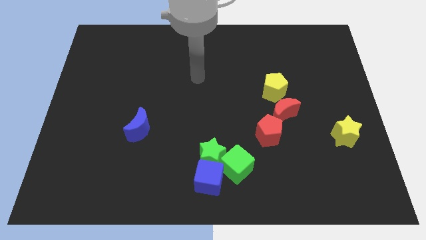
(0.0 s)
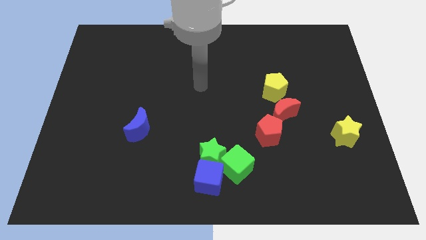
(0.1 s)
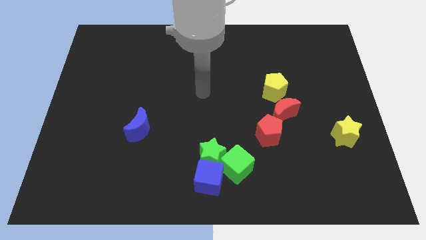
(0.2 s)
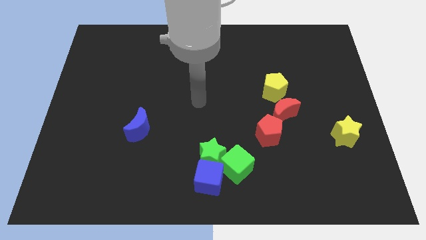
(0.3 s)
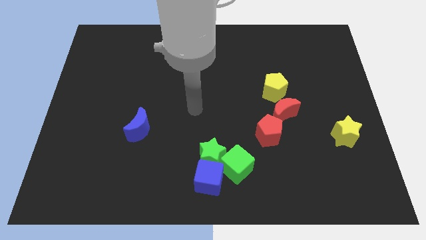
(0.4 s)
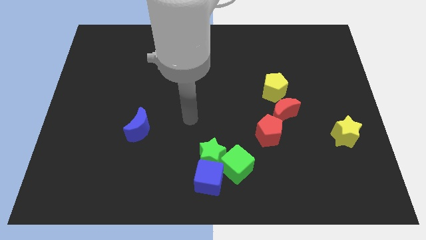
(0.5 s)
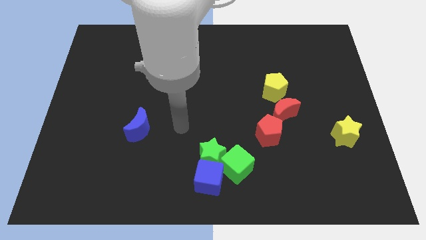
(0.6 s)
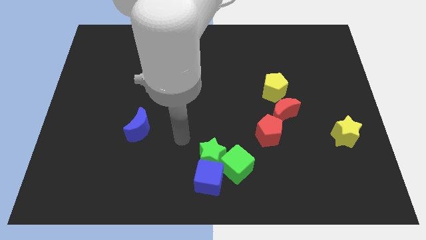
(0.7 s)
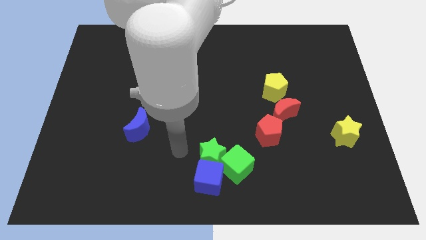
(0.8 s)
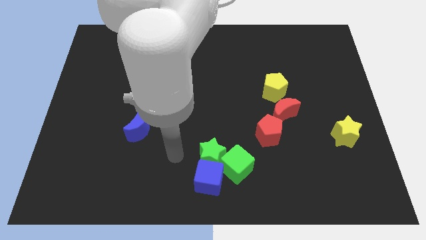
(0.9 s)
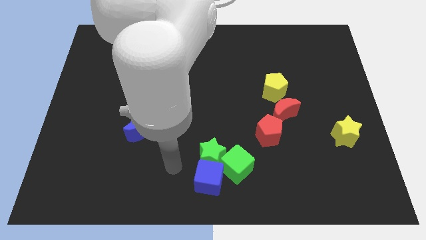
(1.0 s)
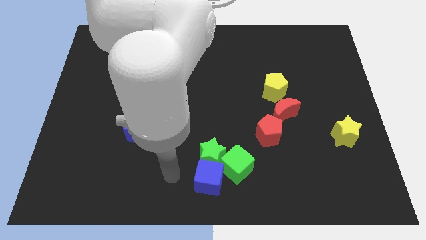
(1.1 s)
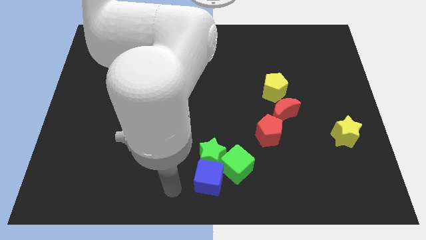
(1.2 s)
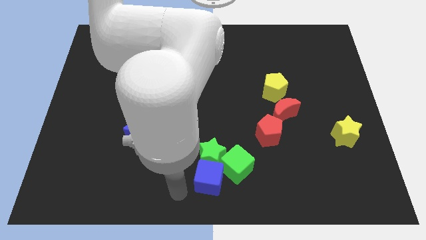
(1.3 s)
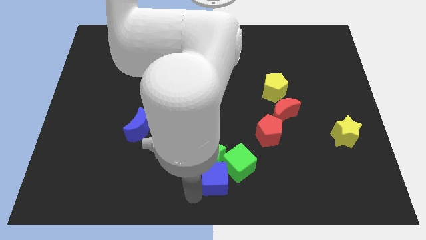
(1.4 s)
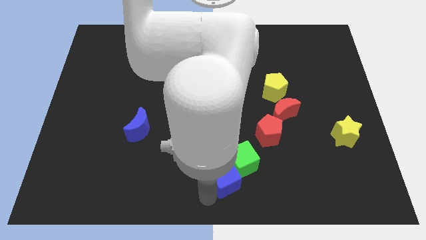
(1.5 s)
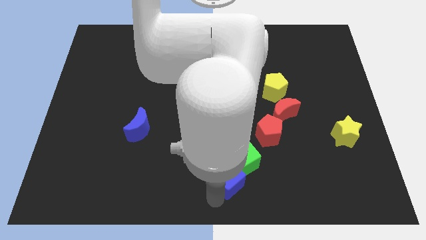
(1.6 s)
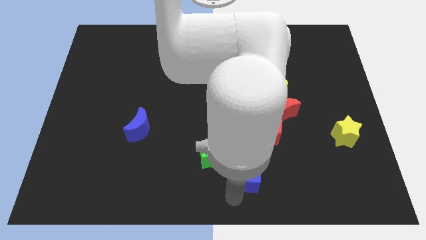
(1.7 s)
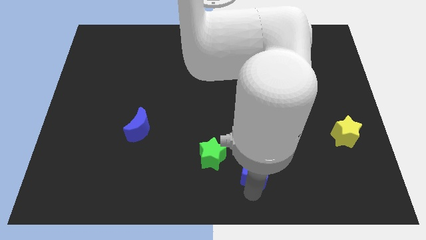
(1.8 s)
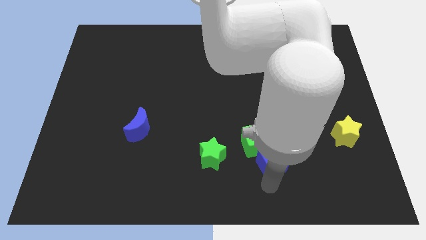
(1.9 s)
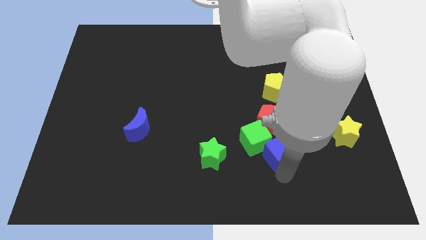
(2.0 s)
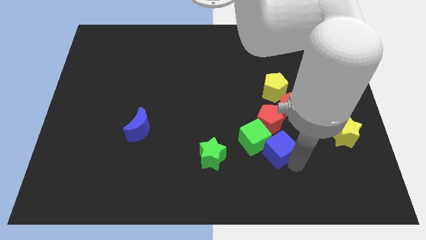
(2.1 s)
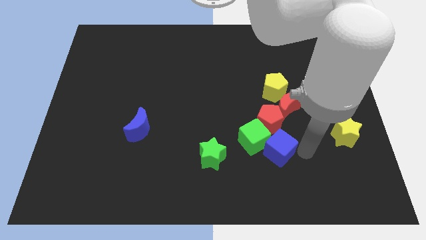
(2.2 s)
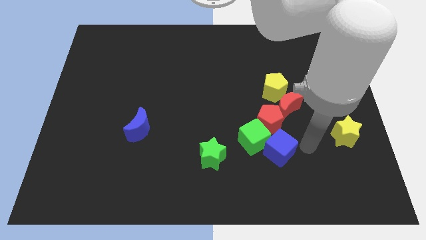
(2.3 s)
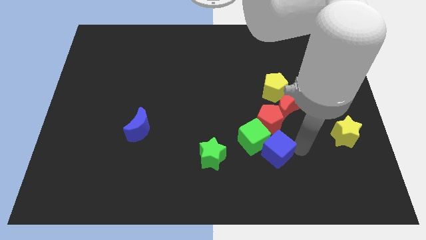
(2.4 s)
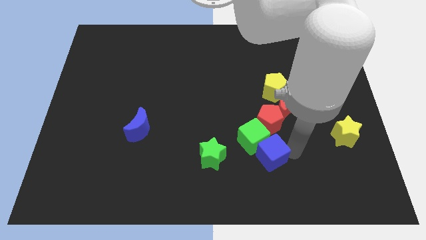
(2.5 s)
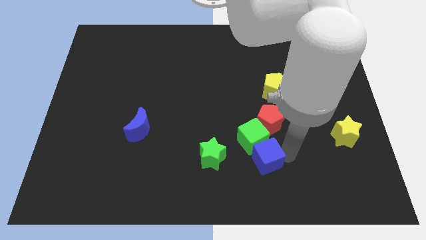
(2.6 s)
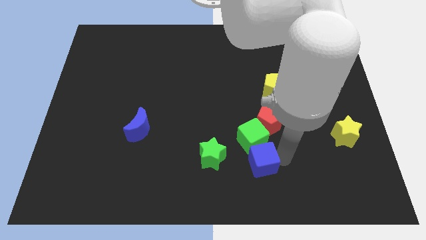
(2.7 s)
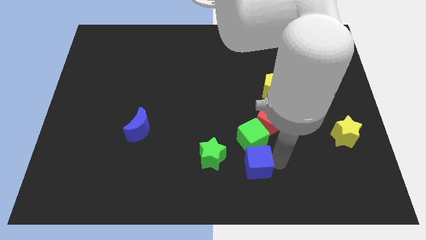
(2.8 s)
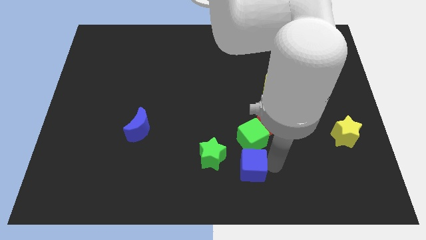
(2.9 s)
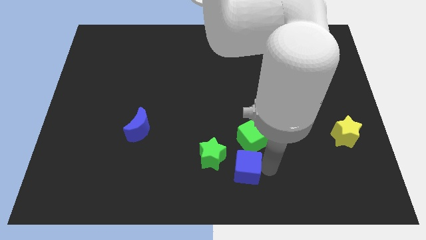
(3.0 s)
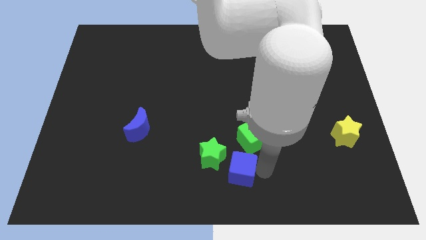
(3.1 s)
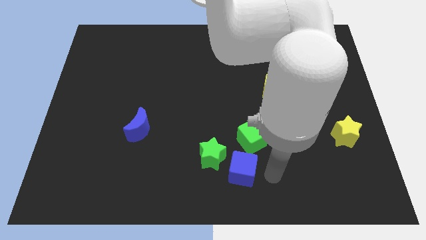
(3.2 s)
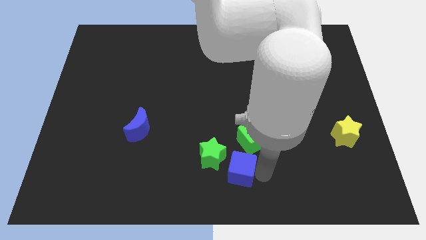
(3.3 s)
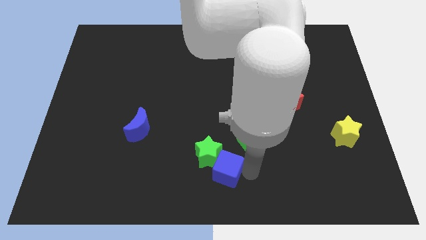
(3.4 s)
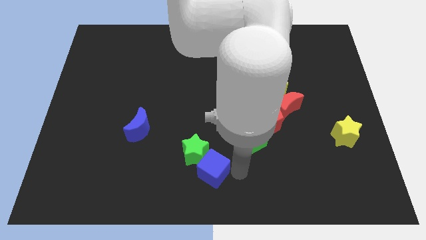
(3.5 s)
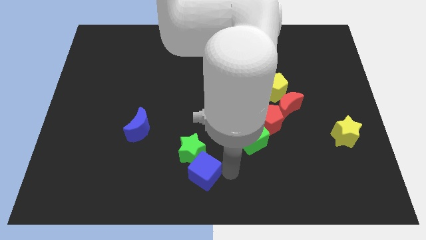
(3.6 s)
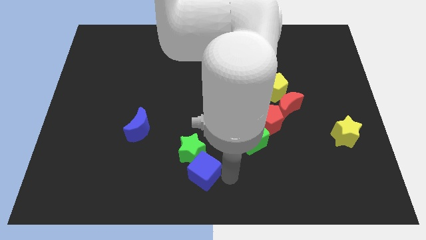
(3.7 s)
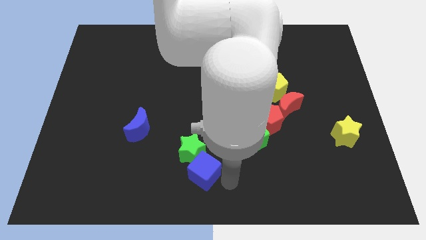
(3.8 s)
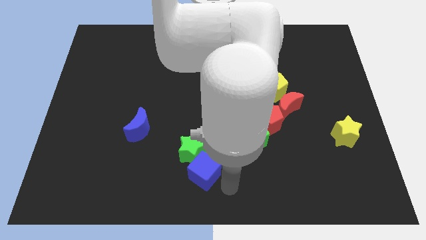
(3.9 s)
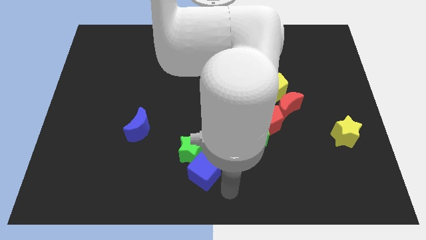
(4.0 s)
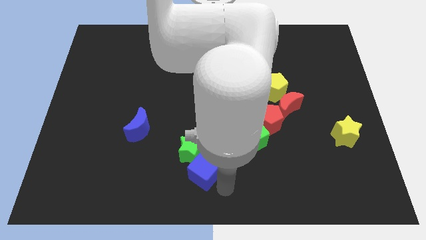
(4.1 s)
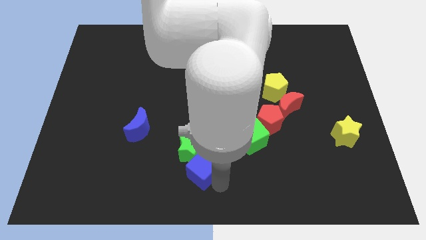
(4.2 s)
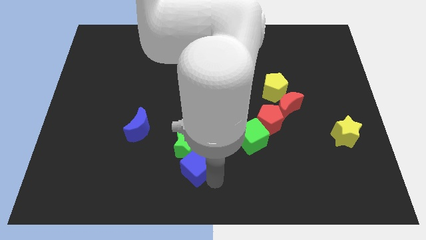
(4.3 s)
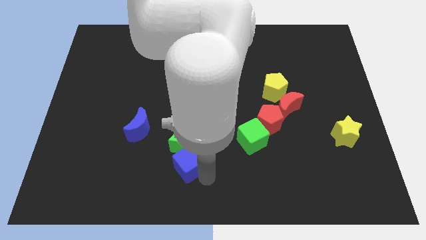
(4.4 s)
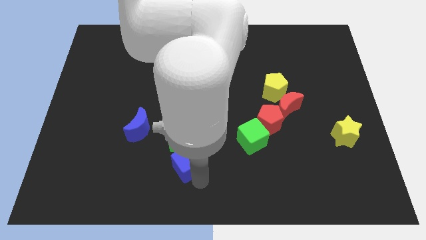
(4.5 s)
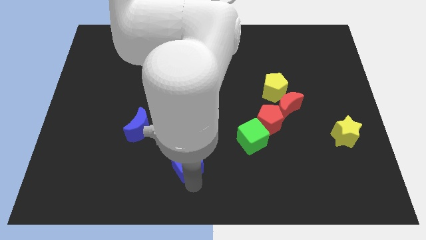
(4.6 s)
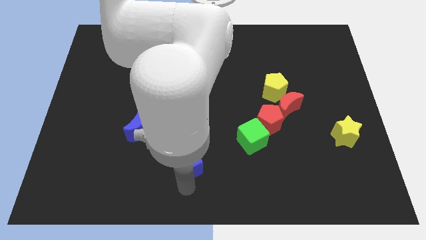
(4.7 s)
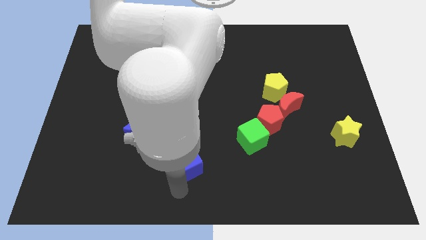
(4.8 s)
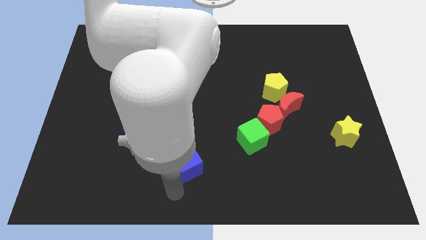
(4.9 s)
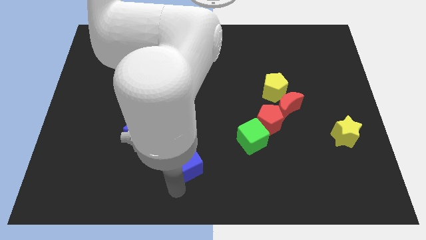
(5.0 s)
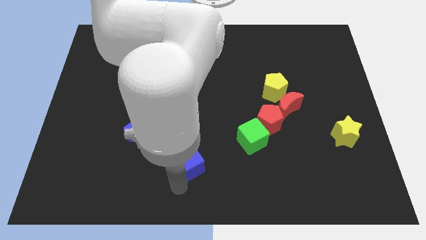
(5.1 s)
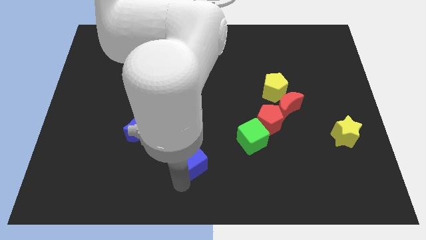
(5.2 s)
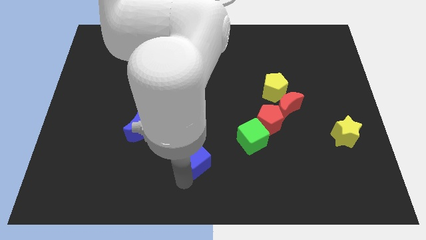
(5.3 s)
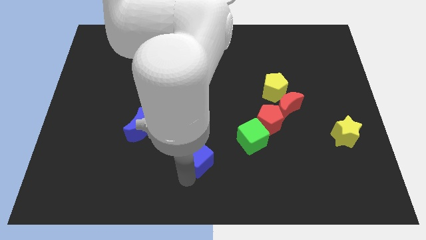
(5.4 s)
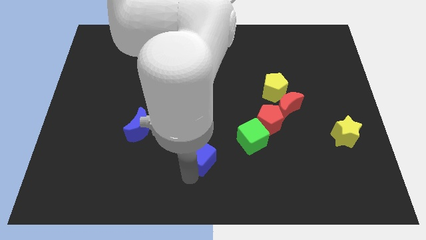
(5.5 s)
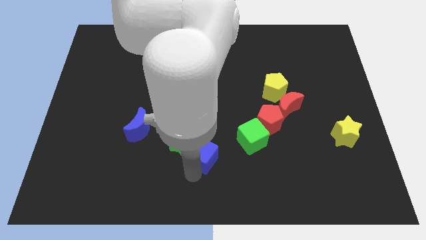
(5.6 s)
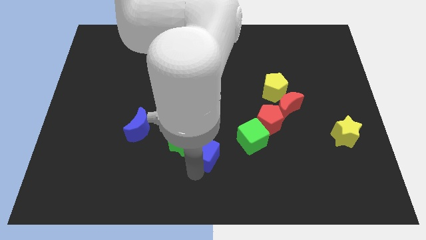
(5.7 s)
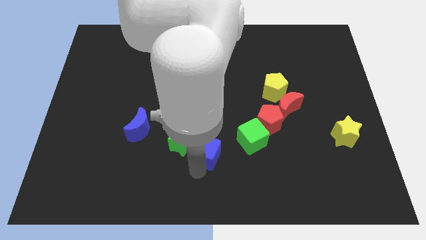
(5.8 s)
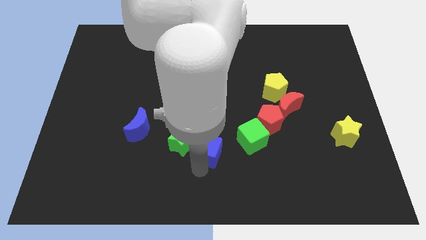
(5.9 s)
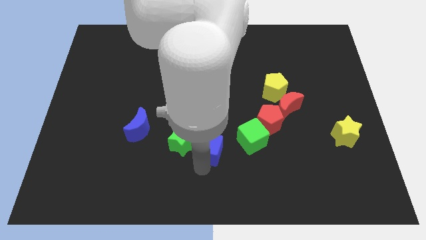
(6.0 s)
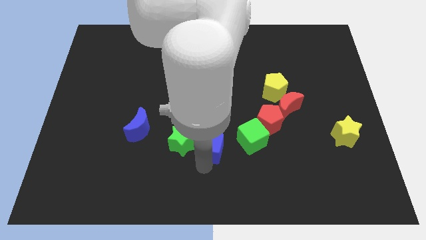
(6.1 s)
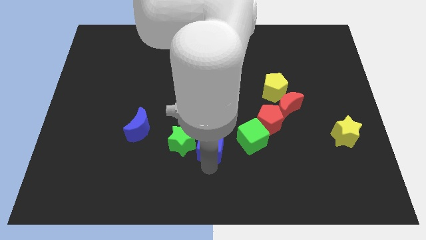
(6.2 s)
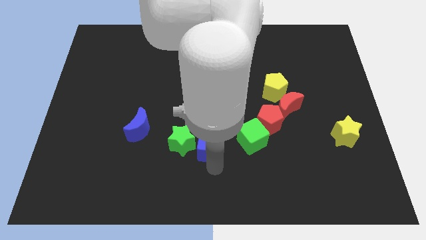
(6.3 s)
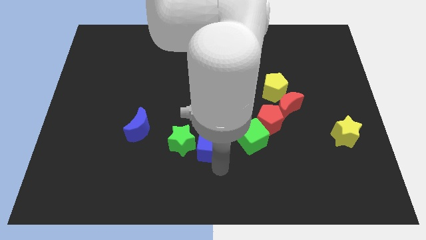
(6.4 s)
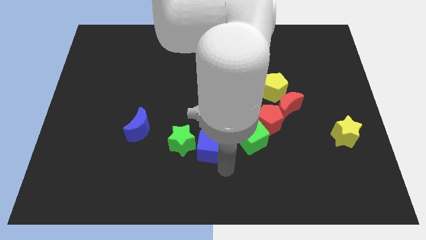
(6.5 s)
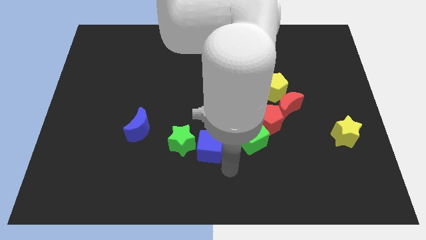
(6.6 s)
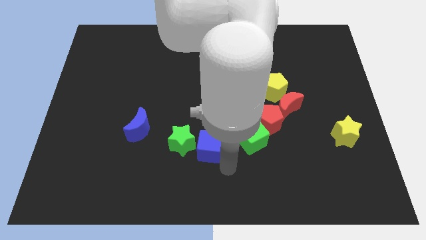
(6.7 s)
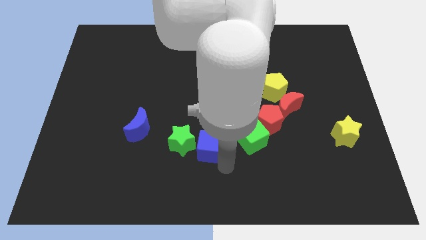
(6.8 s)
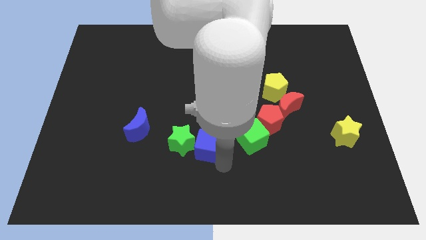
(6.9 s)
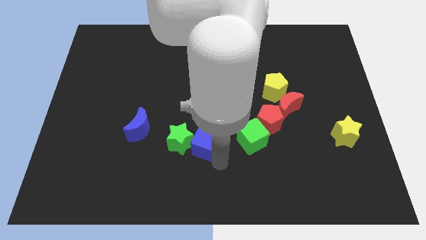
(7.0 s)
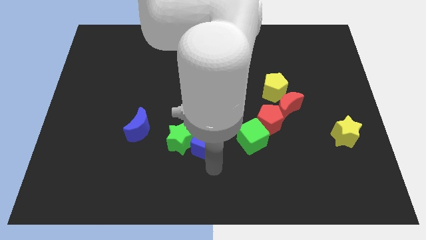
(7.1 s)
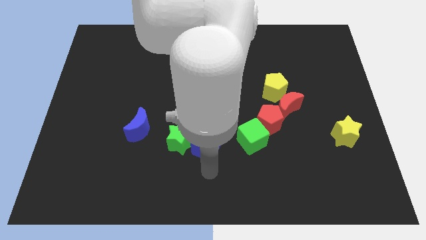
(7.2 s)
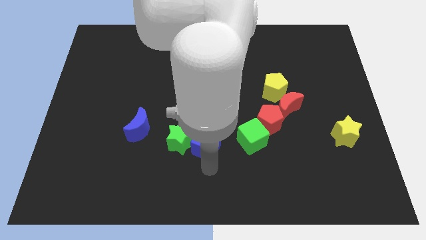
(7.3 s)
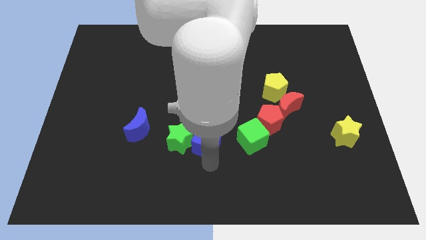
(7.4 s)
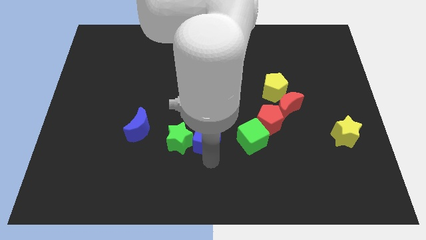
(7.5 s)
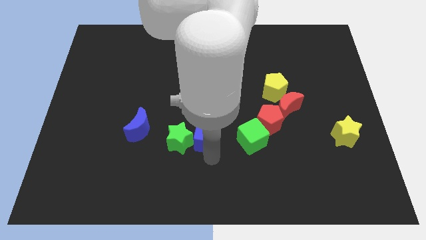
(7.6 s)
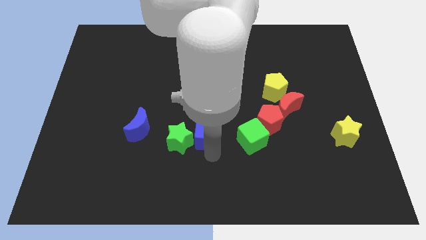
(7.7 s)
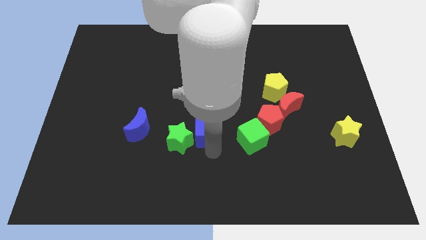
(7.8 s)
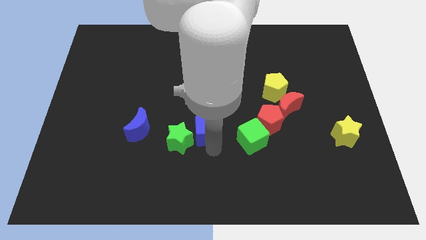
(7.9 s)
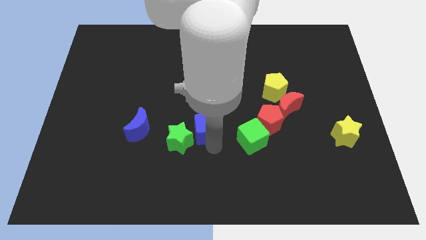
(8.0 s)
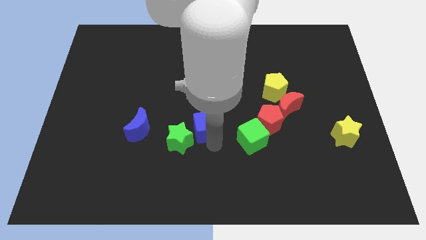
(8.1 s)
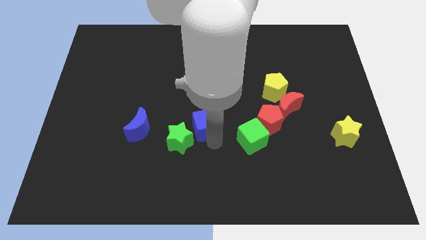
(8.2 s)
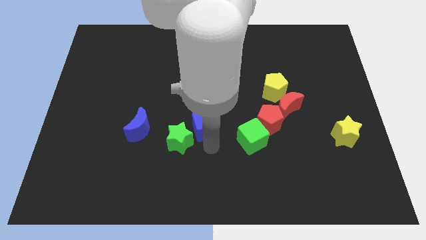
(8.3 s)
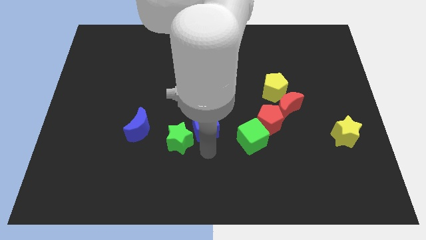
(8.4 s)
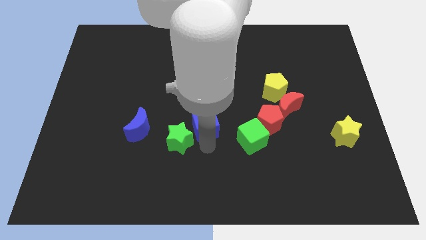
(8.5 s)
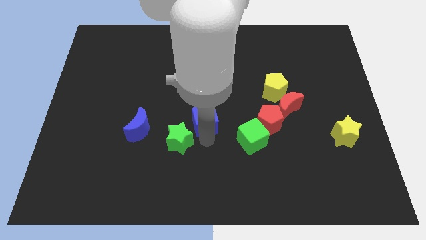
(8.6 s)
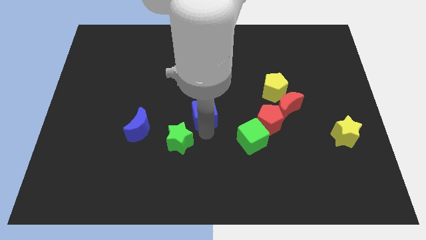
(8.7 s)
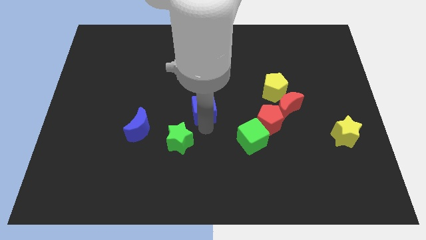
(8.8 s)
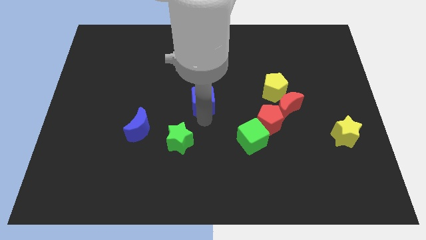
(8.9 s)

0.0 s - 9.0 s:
slide the blue cube upwards
